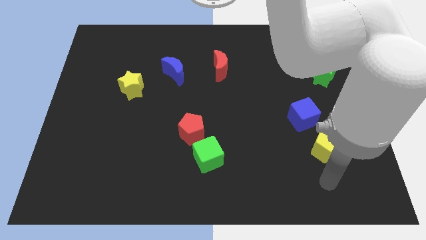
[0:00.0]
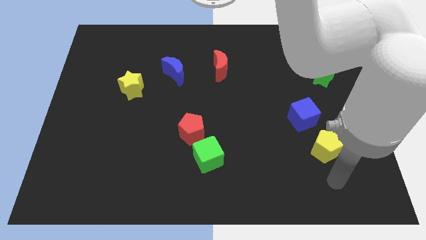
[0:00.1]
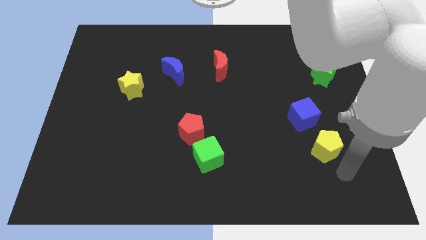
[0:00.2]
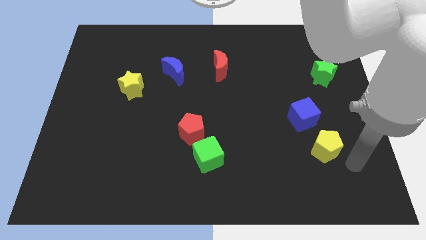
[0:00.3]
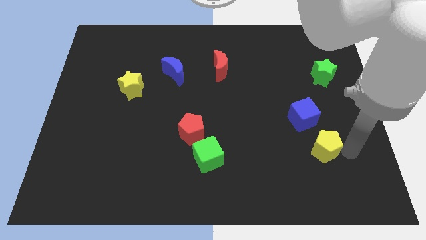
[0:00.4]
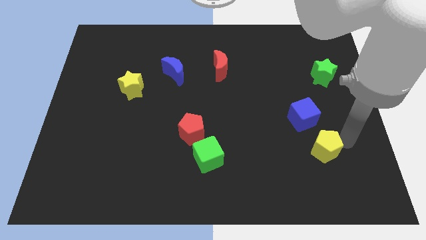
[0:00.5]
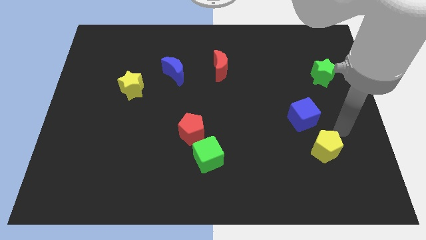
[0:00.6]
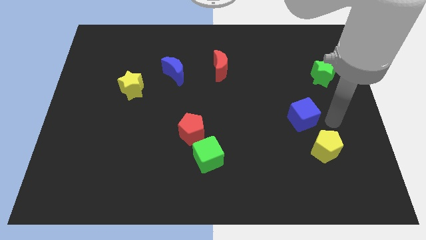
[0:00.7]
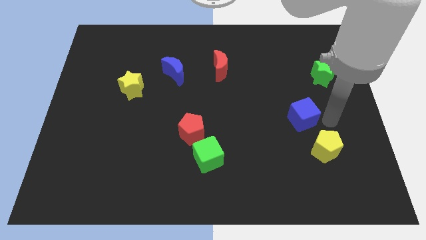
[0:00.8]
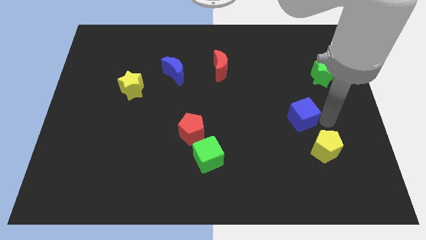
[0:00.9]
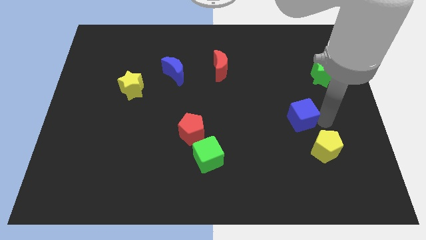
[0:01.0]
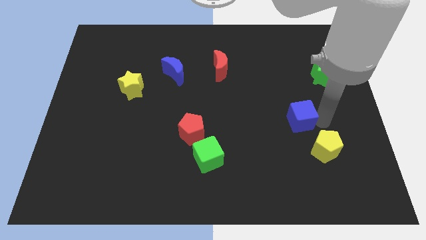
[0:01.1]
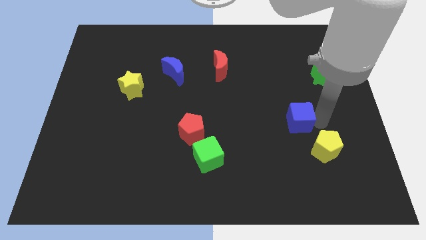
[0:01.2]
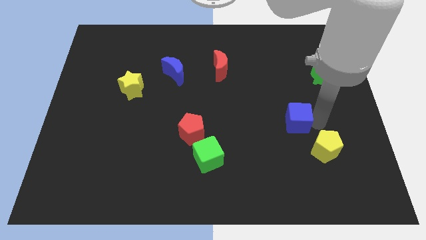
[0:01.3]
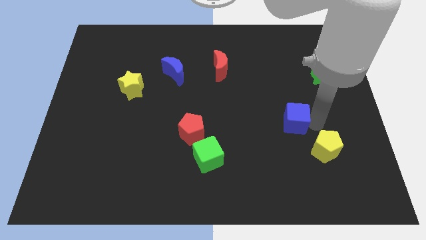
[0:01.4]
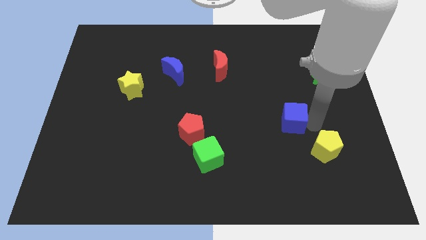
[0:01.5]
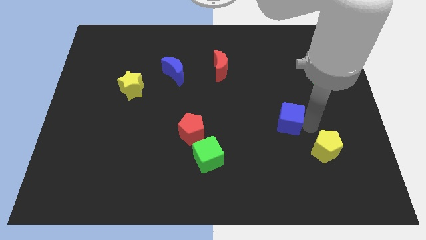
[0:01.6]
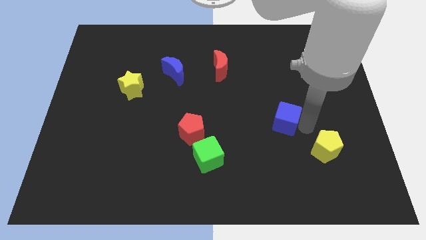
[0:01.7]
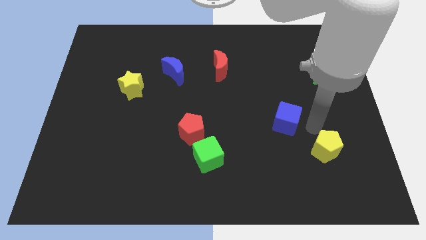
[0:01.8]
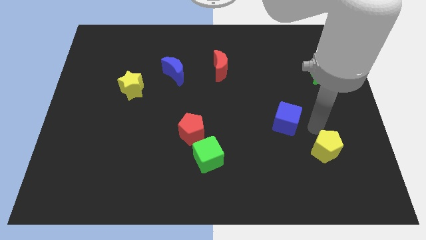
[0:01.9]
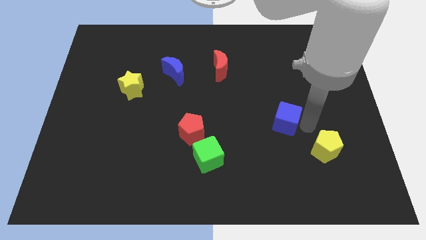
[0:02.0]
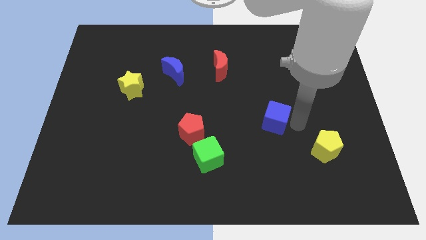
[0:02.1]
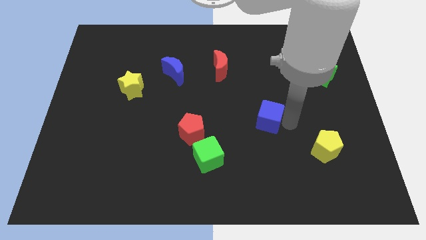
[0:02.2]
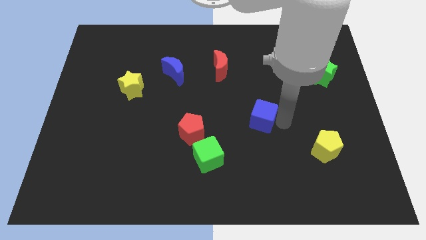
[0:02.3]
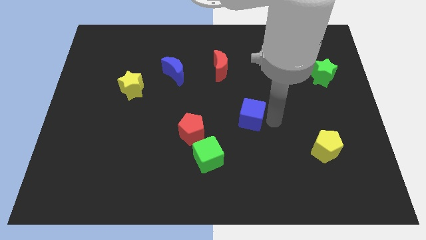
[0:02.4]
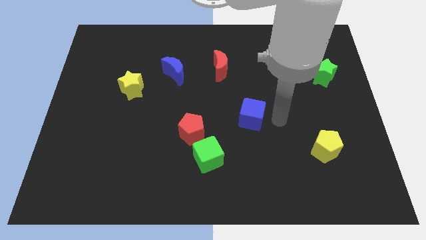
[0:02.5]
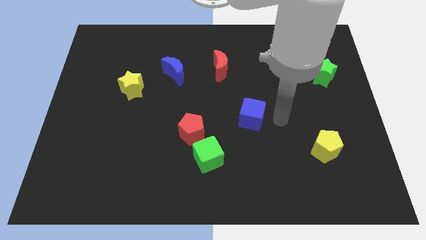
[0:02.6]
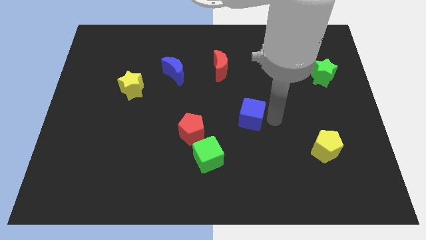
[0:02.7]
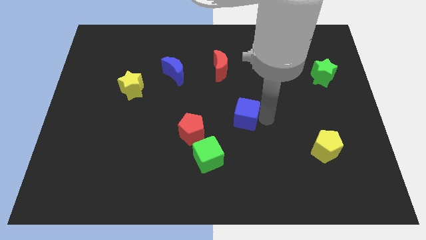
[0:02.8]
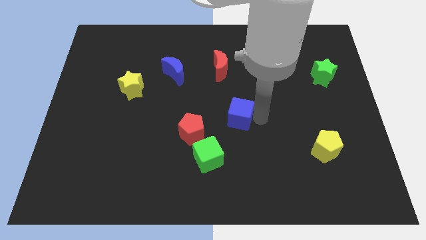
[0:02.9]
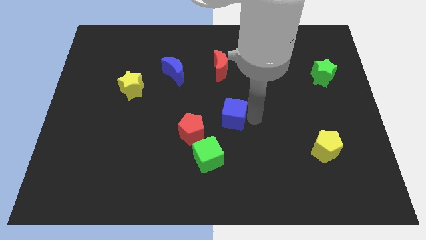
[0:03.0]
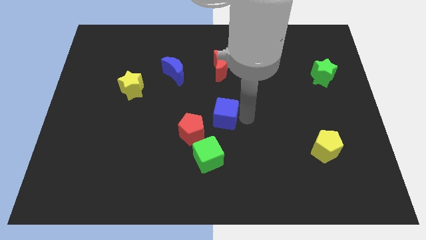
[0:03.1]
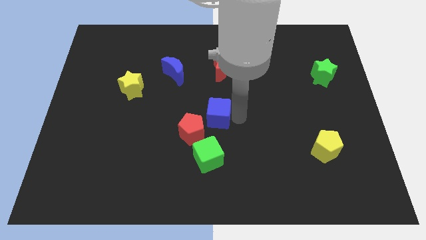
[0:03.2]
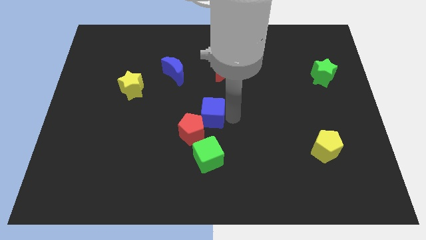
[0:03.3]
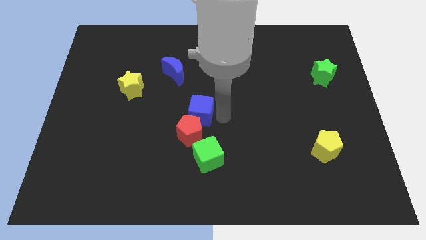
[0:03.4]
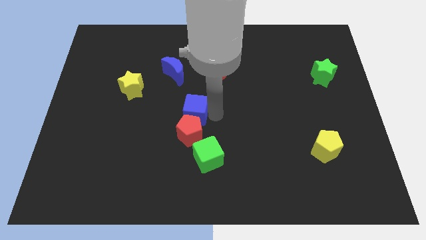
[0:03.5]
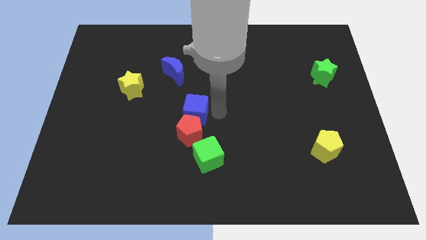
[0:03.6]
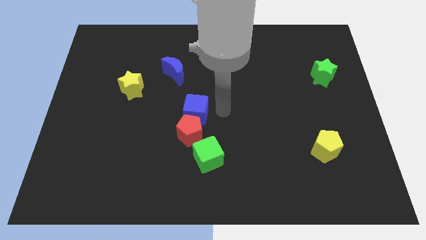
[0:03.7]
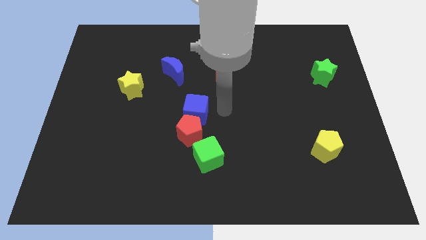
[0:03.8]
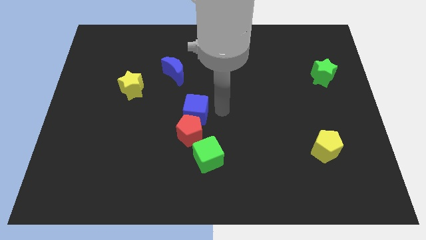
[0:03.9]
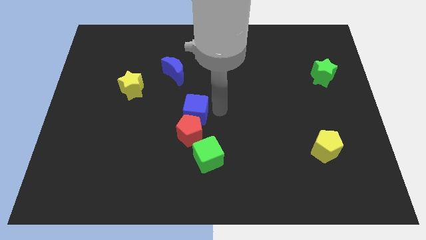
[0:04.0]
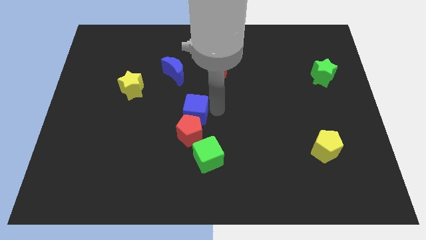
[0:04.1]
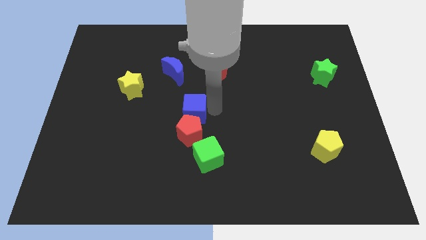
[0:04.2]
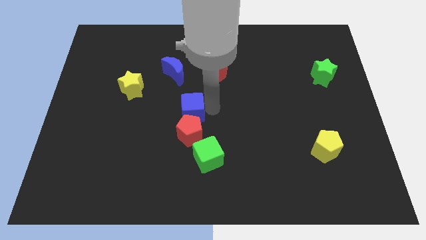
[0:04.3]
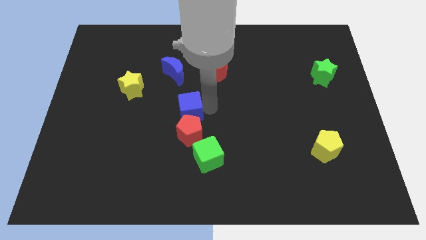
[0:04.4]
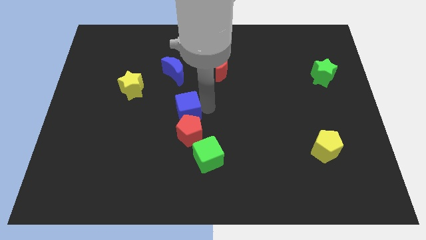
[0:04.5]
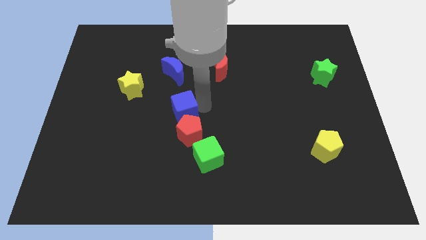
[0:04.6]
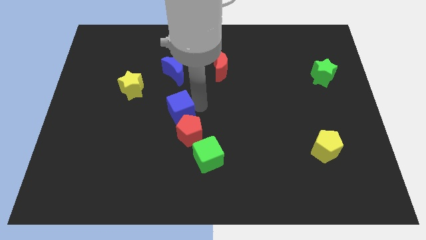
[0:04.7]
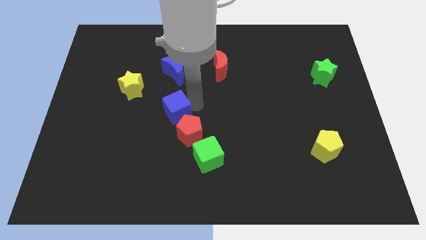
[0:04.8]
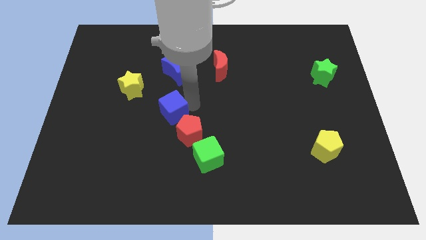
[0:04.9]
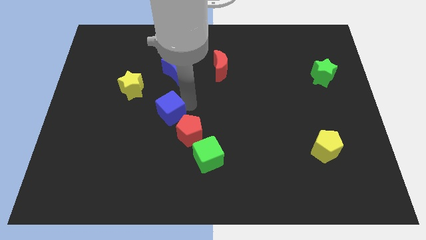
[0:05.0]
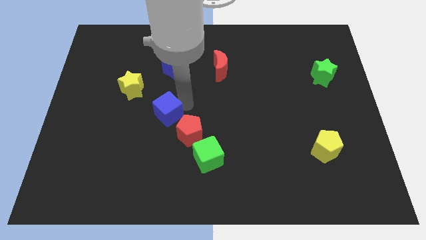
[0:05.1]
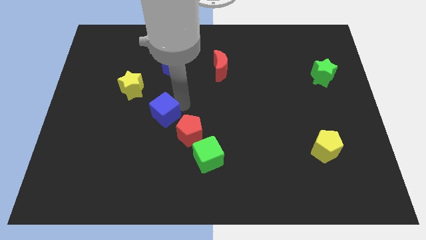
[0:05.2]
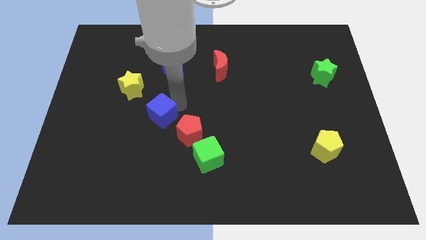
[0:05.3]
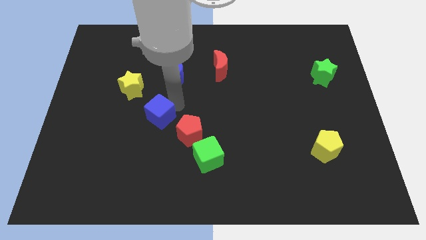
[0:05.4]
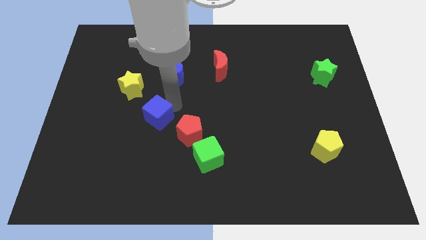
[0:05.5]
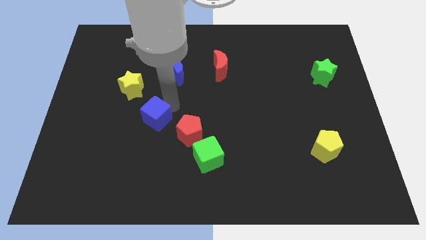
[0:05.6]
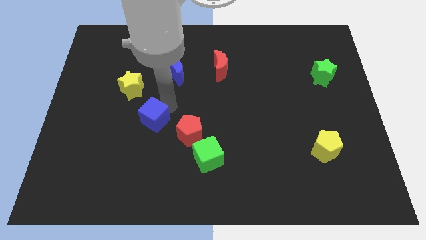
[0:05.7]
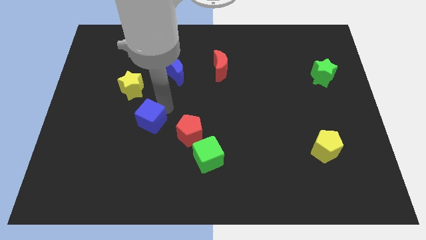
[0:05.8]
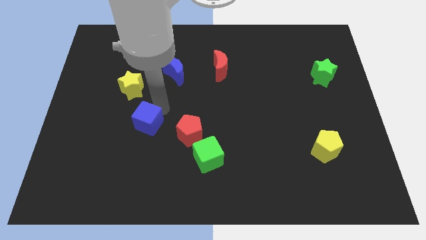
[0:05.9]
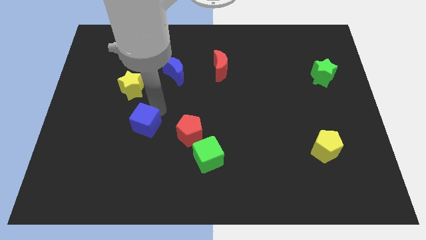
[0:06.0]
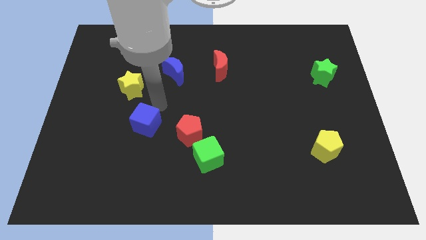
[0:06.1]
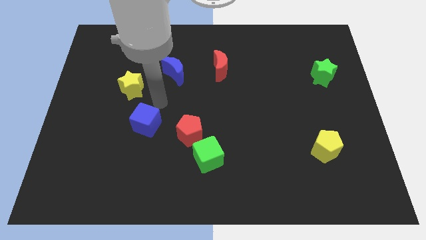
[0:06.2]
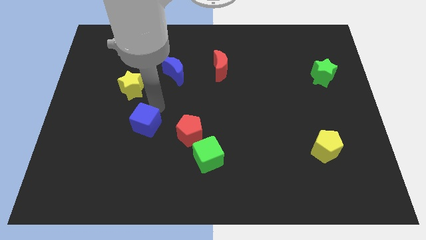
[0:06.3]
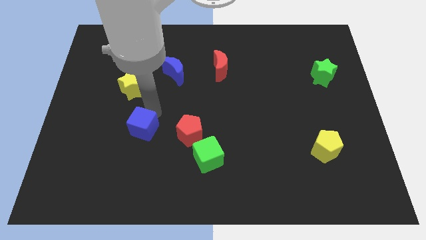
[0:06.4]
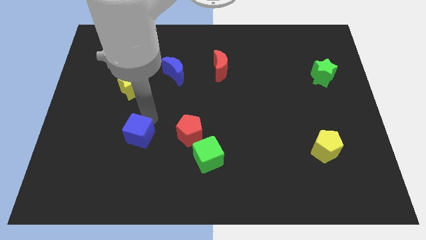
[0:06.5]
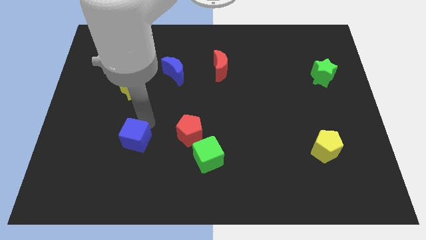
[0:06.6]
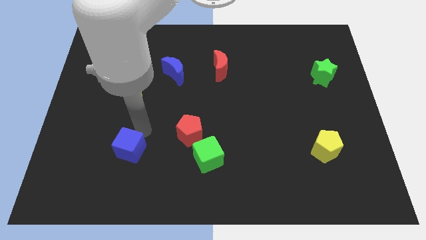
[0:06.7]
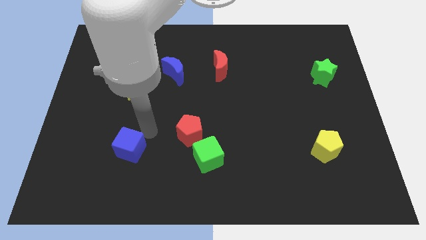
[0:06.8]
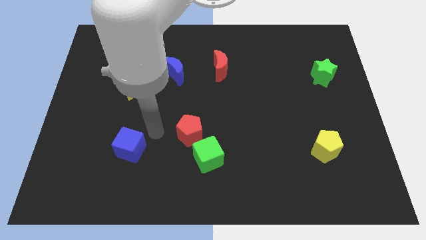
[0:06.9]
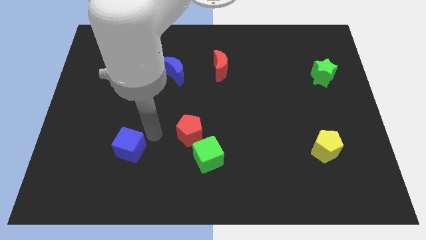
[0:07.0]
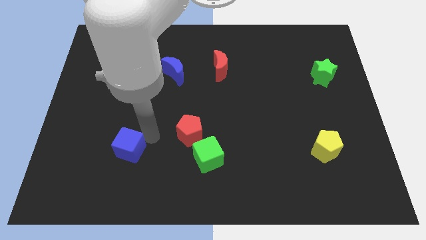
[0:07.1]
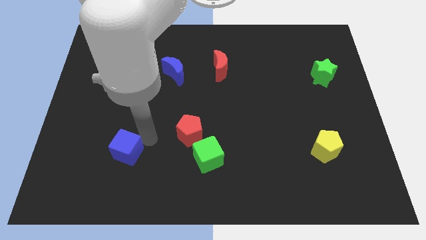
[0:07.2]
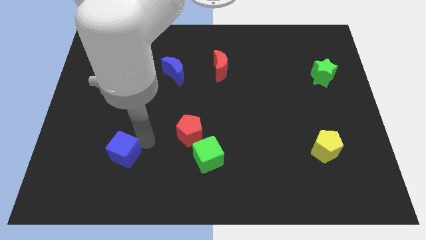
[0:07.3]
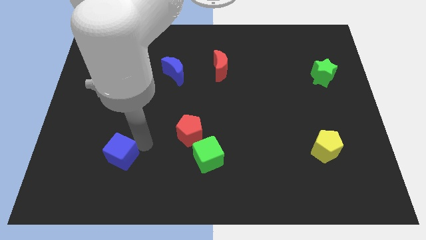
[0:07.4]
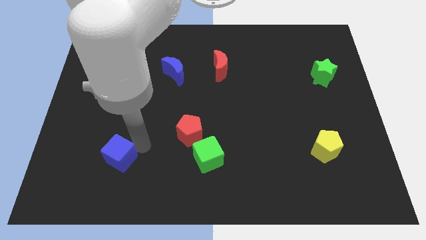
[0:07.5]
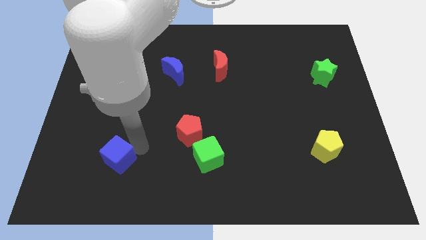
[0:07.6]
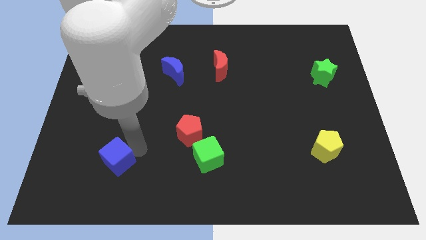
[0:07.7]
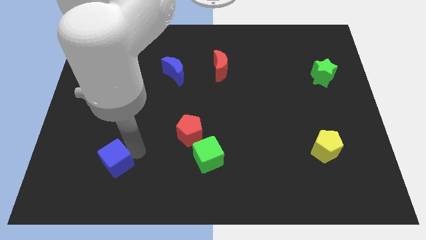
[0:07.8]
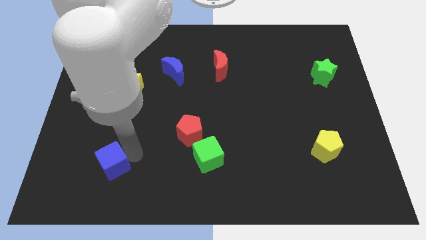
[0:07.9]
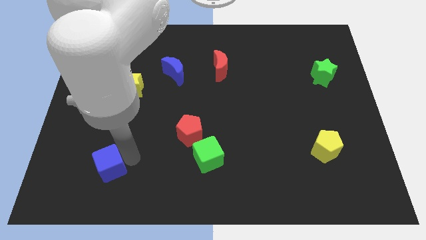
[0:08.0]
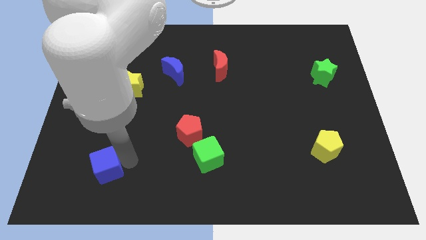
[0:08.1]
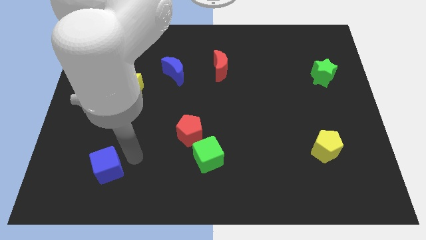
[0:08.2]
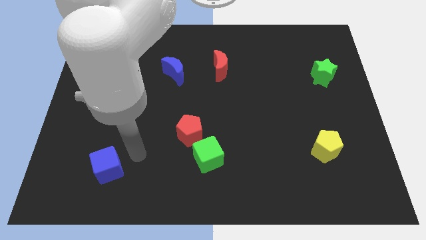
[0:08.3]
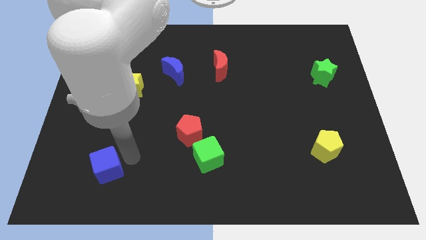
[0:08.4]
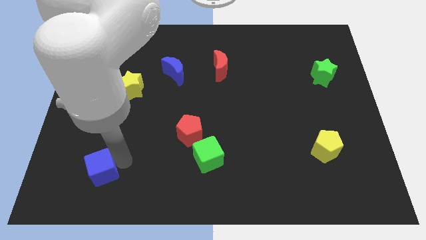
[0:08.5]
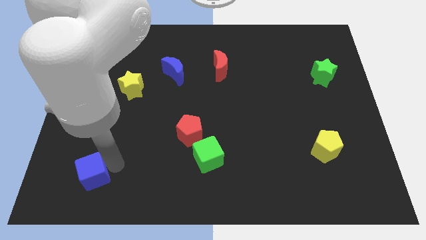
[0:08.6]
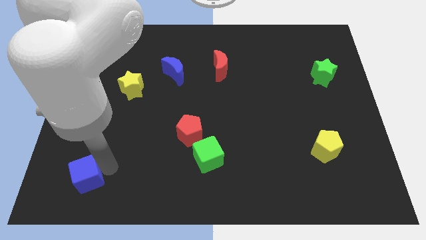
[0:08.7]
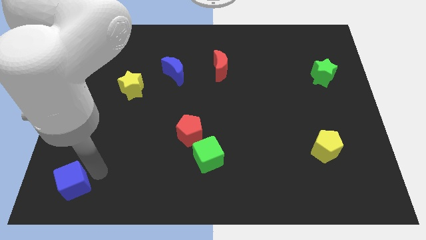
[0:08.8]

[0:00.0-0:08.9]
put the blue cube to the bottom left corner
